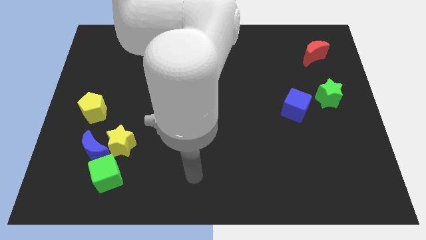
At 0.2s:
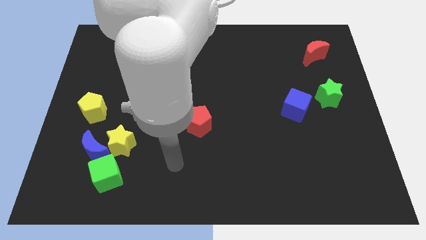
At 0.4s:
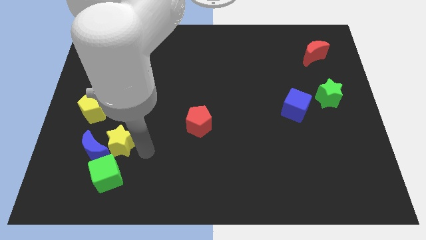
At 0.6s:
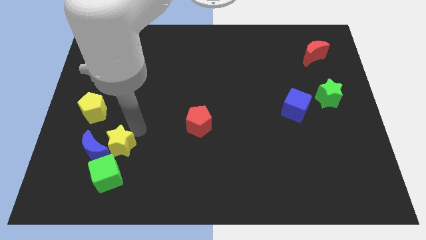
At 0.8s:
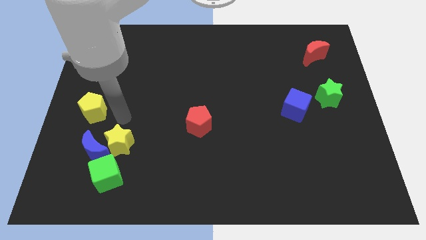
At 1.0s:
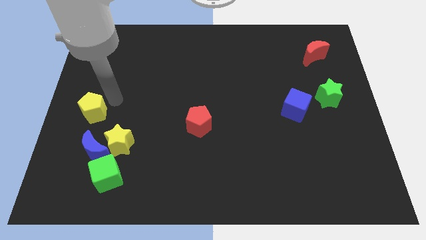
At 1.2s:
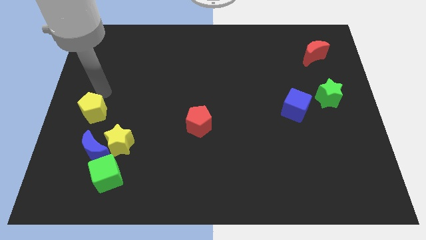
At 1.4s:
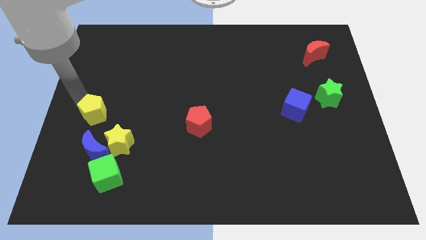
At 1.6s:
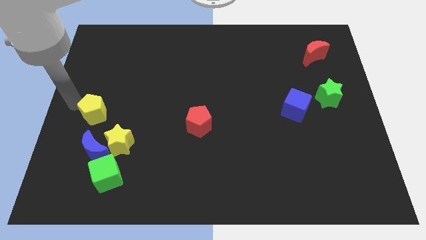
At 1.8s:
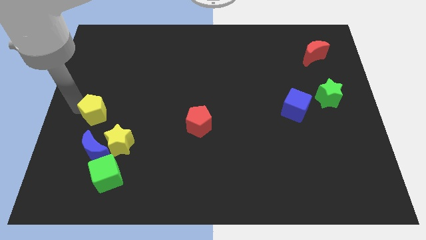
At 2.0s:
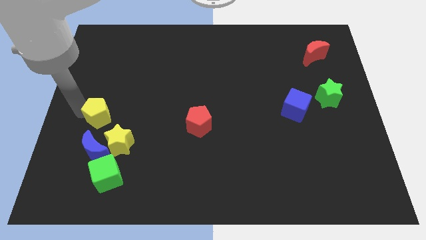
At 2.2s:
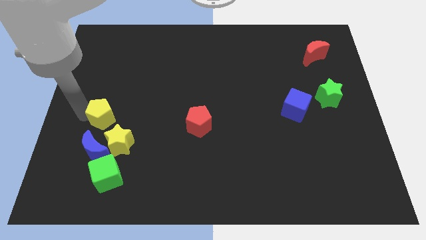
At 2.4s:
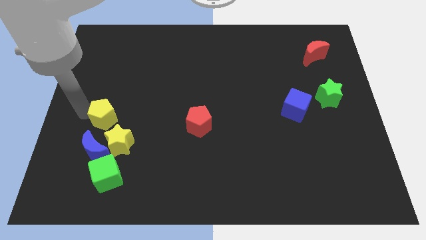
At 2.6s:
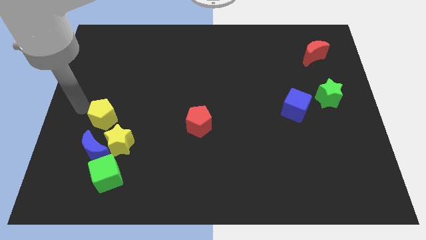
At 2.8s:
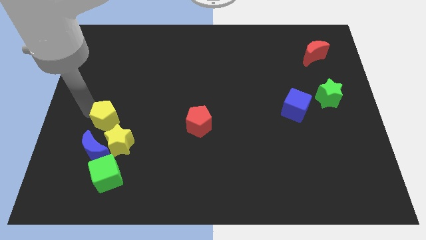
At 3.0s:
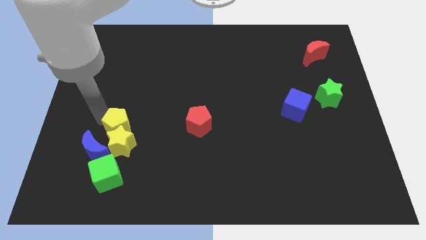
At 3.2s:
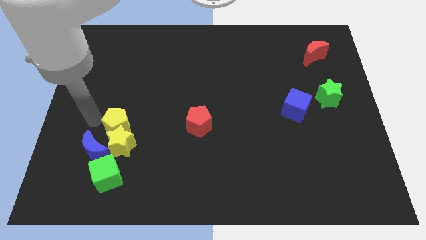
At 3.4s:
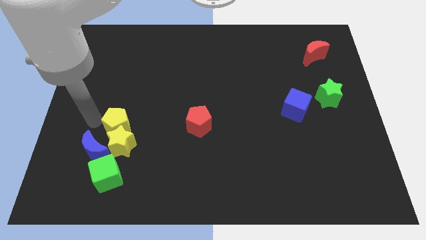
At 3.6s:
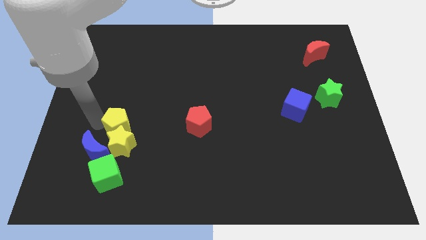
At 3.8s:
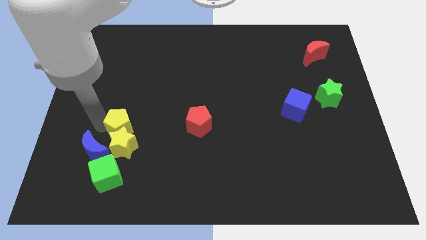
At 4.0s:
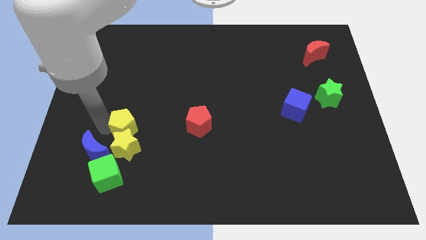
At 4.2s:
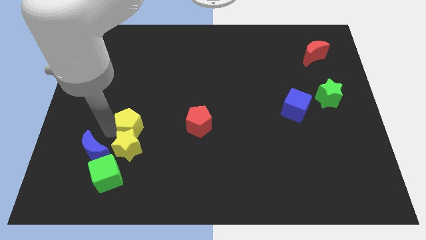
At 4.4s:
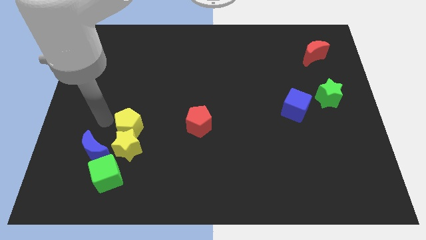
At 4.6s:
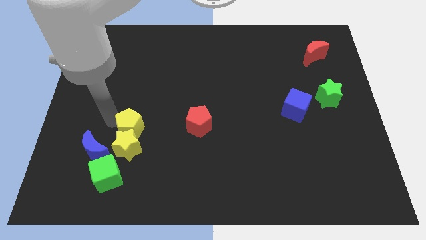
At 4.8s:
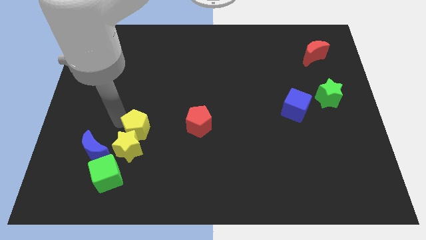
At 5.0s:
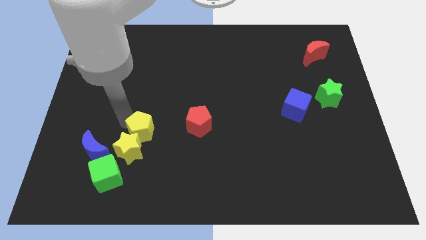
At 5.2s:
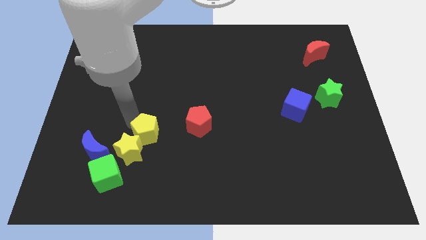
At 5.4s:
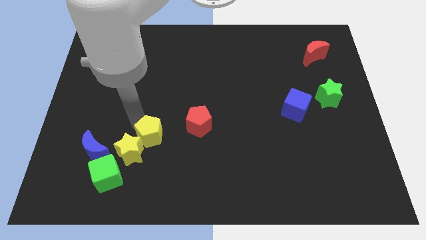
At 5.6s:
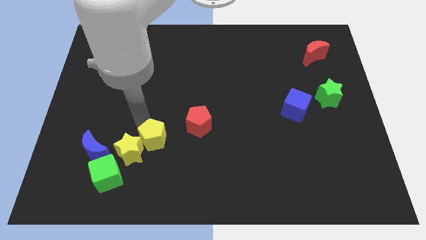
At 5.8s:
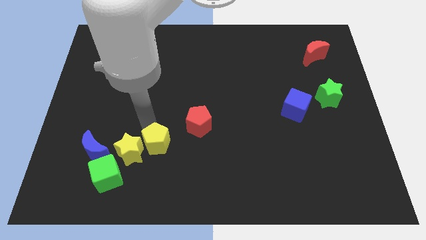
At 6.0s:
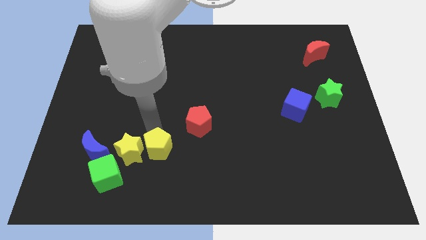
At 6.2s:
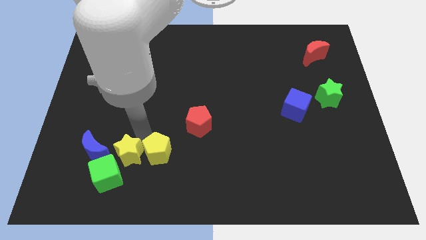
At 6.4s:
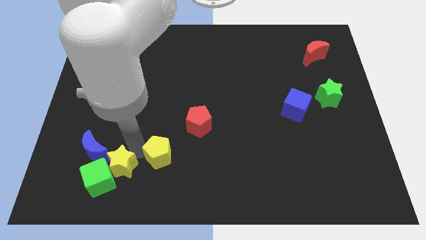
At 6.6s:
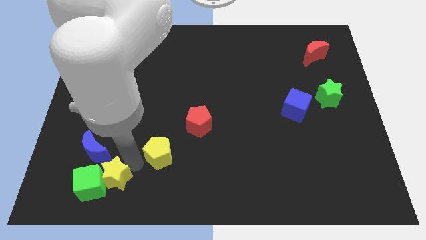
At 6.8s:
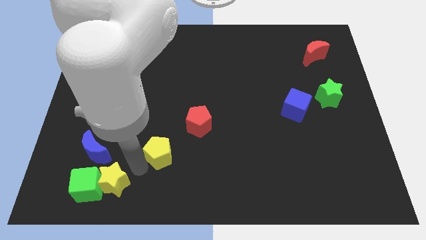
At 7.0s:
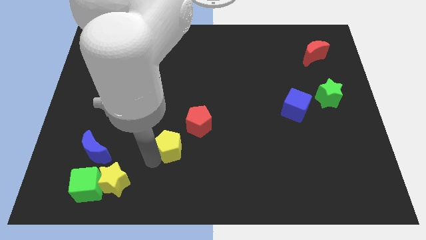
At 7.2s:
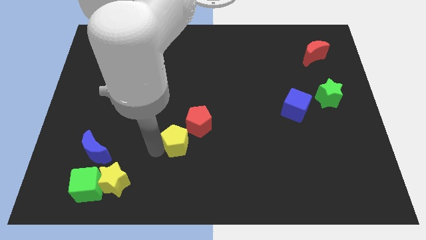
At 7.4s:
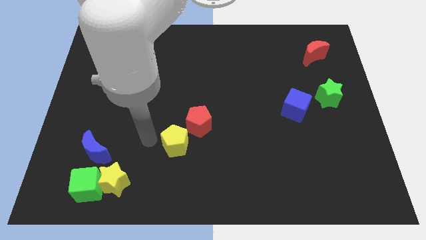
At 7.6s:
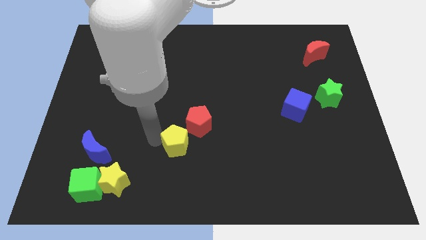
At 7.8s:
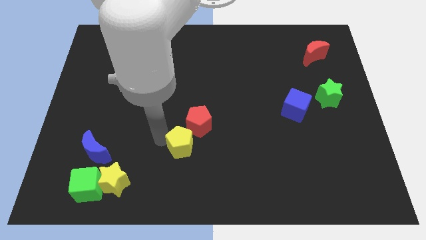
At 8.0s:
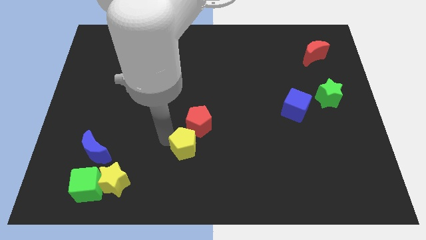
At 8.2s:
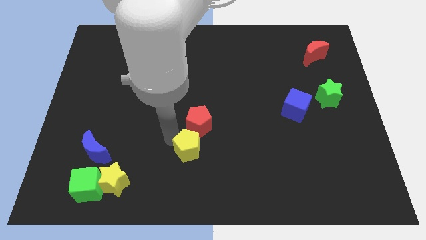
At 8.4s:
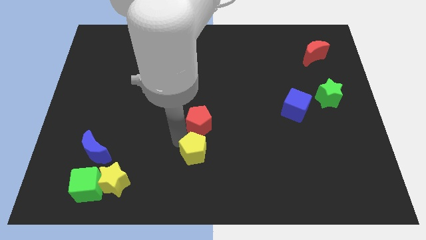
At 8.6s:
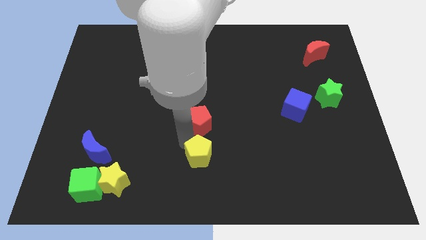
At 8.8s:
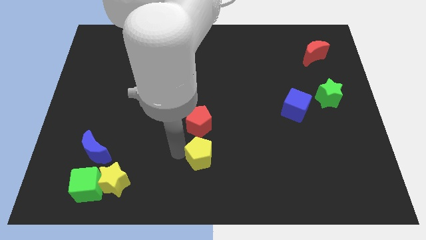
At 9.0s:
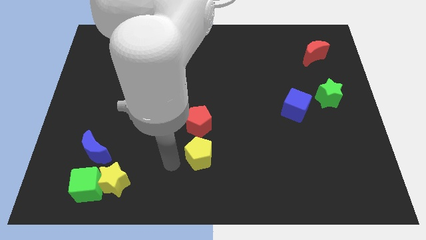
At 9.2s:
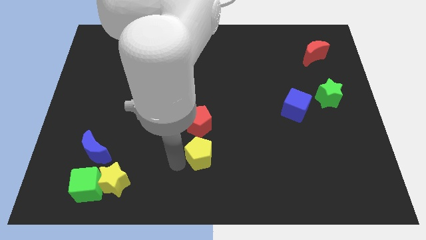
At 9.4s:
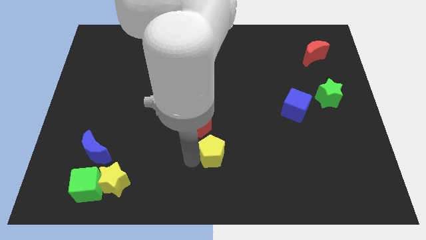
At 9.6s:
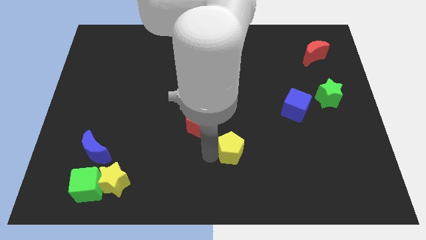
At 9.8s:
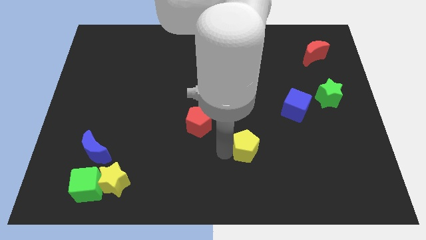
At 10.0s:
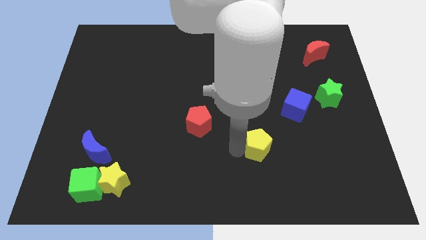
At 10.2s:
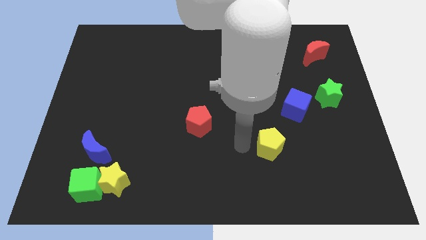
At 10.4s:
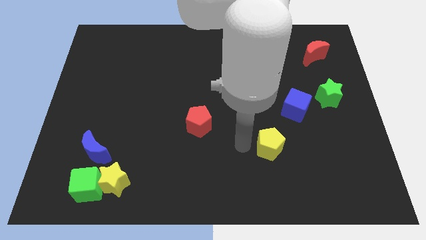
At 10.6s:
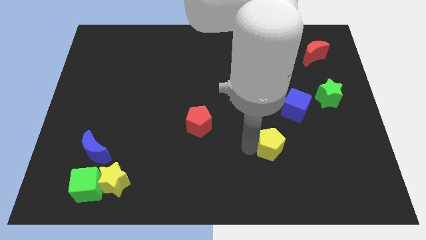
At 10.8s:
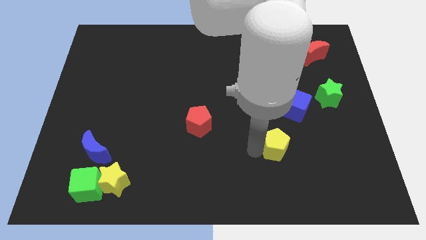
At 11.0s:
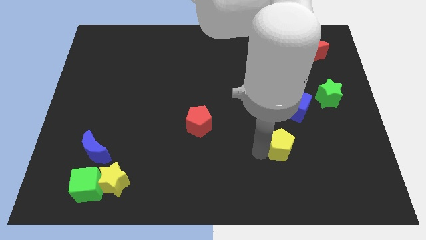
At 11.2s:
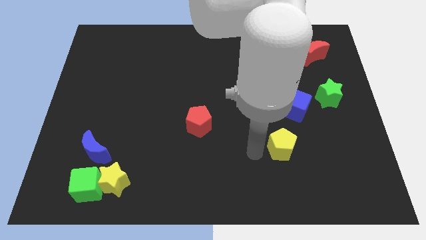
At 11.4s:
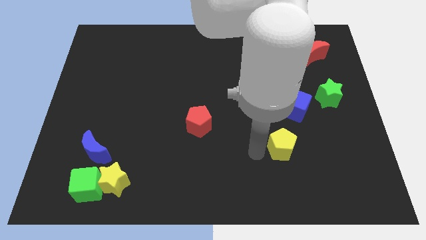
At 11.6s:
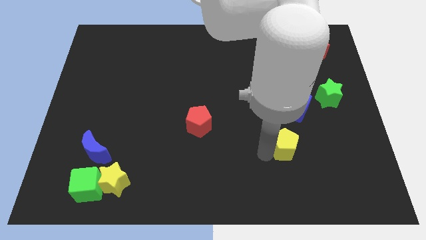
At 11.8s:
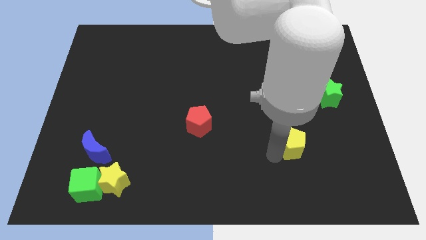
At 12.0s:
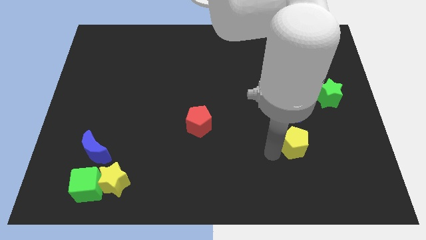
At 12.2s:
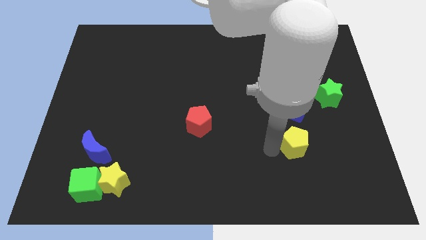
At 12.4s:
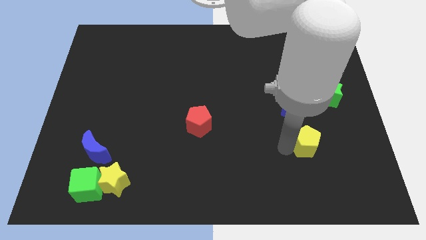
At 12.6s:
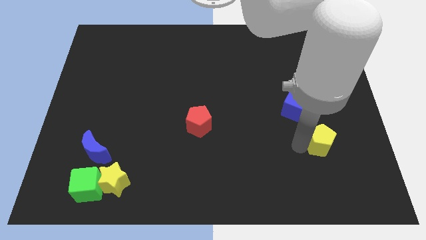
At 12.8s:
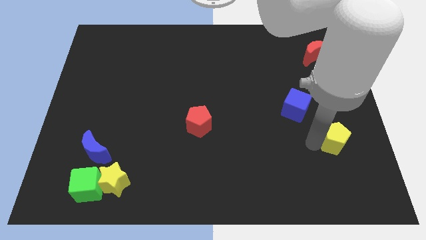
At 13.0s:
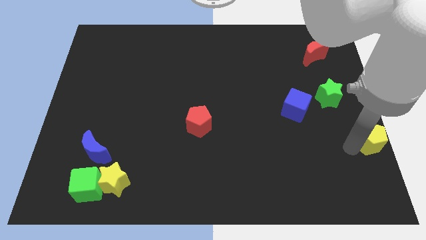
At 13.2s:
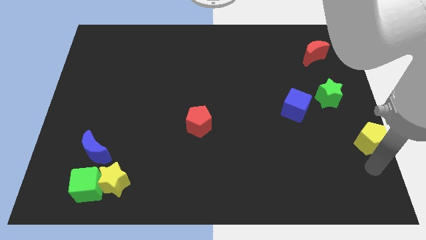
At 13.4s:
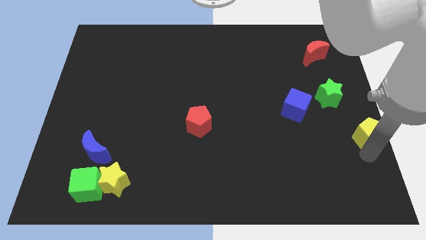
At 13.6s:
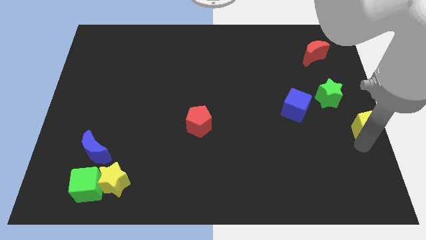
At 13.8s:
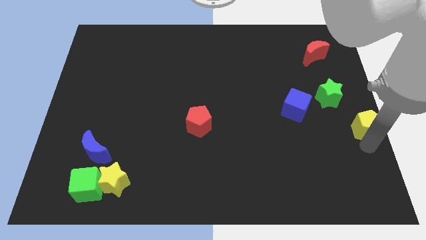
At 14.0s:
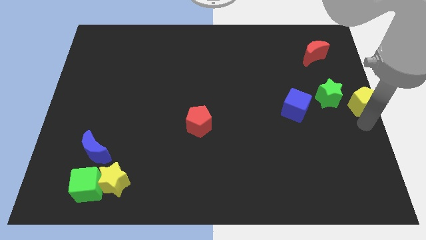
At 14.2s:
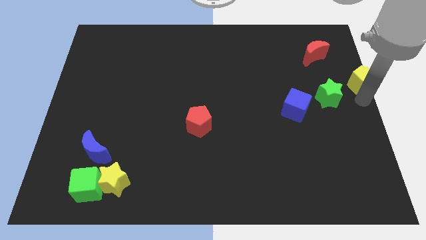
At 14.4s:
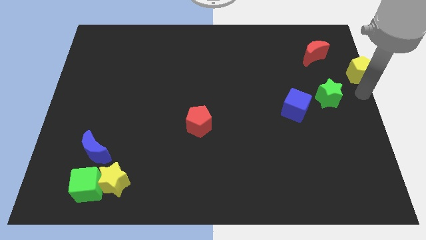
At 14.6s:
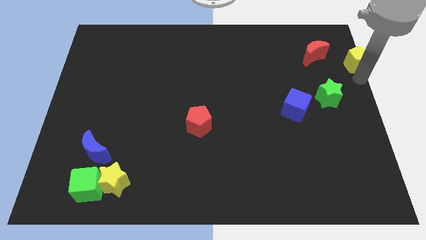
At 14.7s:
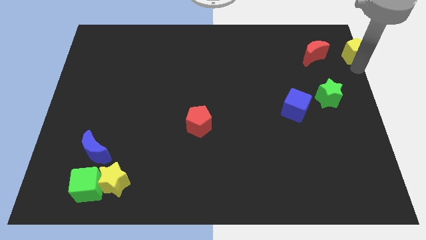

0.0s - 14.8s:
slide the yellow pentagon to the top right corner
